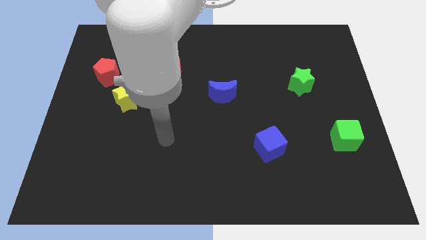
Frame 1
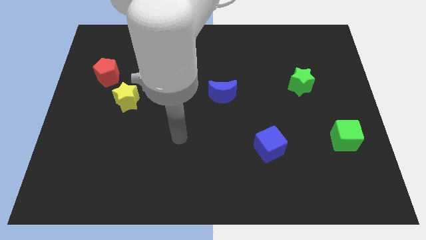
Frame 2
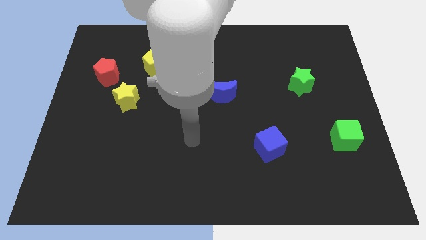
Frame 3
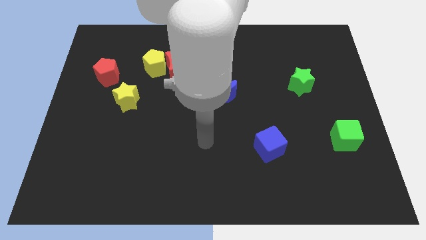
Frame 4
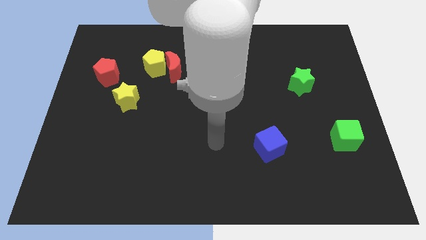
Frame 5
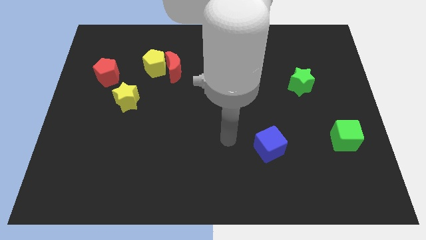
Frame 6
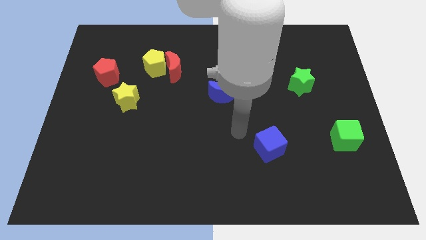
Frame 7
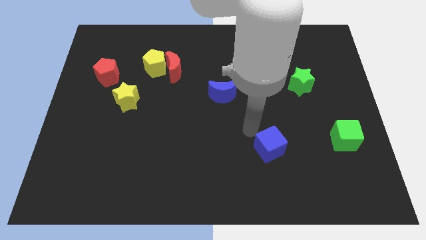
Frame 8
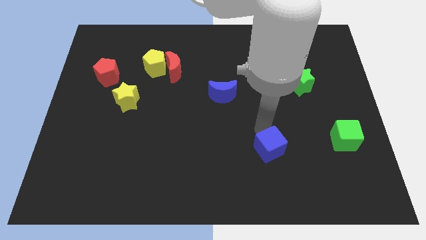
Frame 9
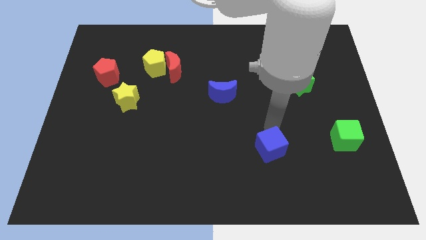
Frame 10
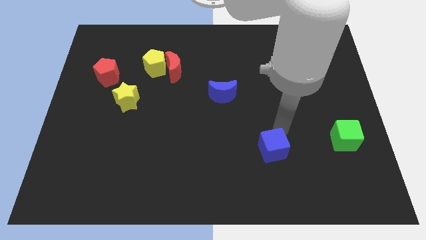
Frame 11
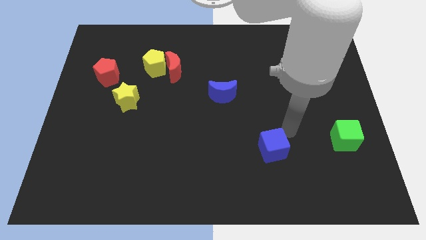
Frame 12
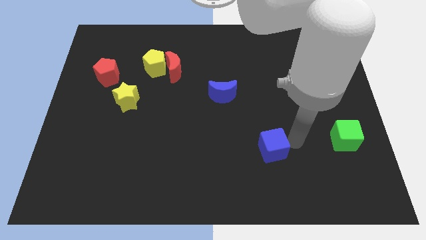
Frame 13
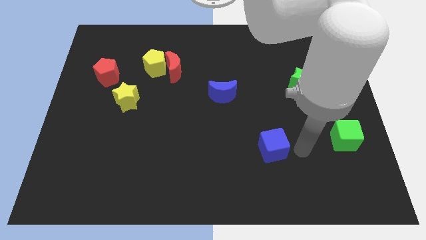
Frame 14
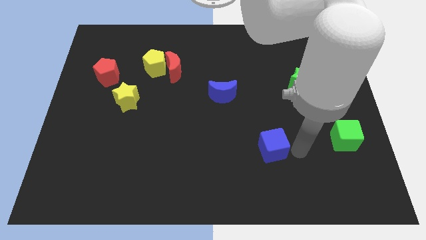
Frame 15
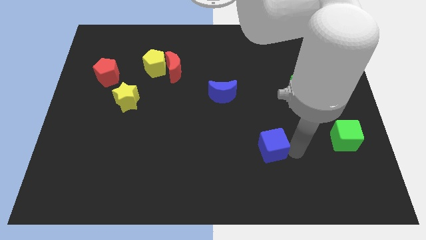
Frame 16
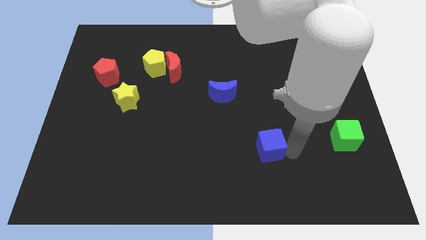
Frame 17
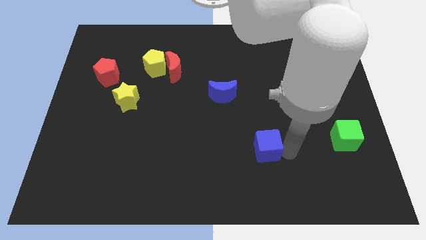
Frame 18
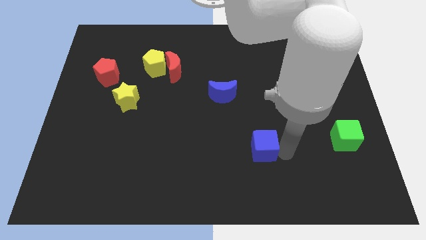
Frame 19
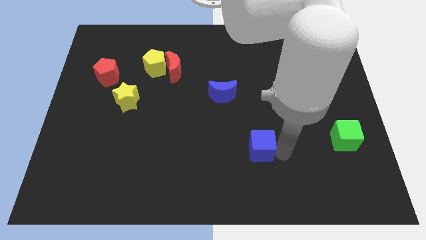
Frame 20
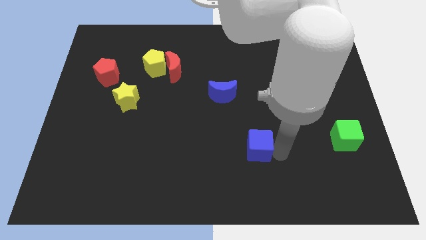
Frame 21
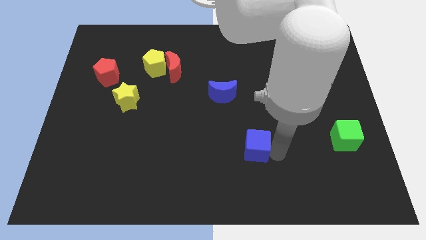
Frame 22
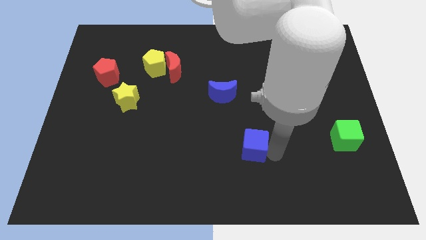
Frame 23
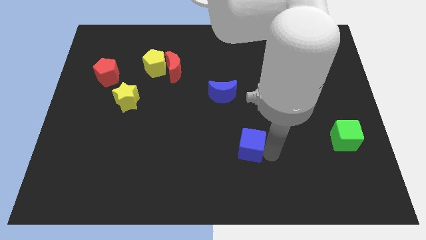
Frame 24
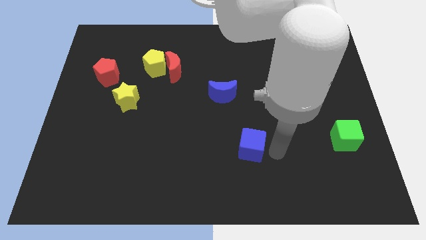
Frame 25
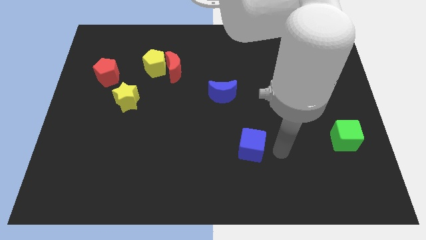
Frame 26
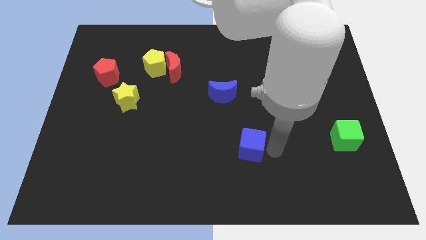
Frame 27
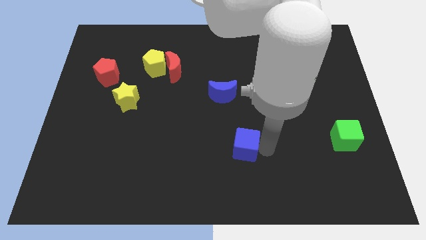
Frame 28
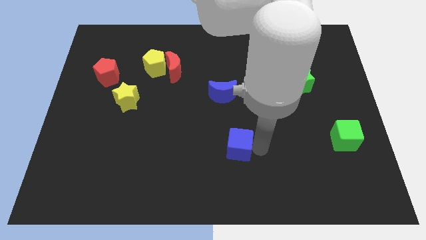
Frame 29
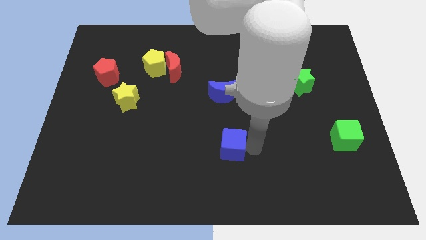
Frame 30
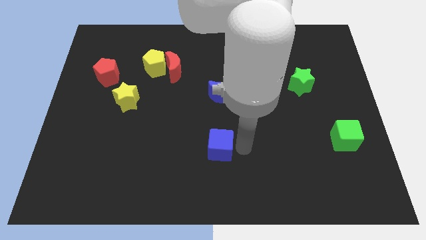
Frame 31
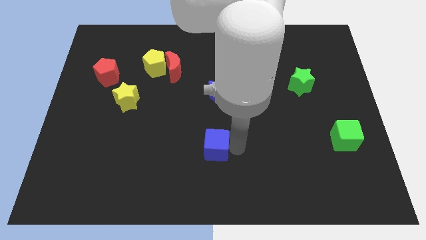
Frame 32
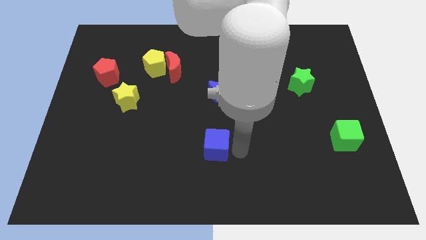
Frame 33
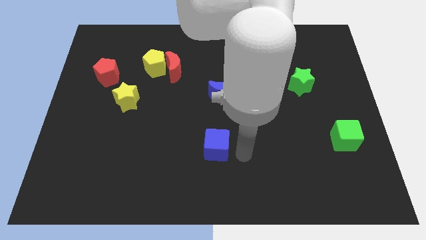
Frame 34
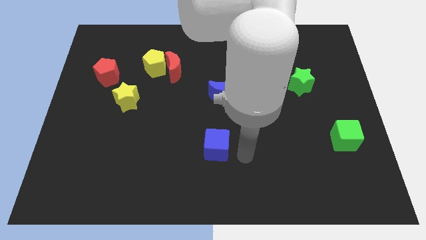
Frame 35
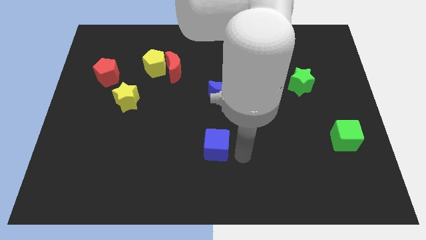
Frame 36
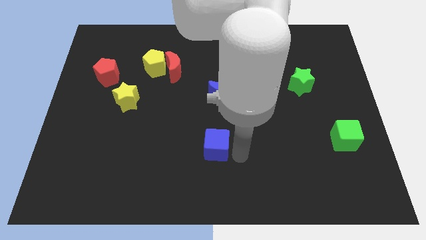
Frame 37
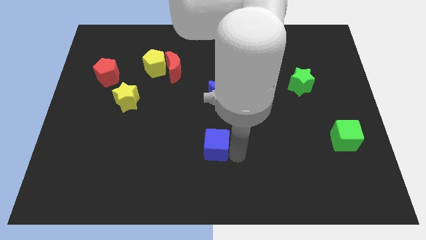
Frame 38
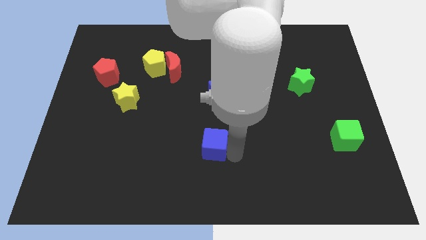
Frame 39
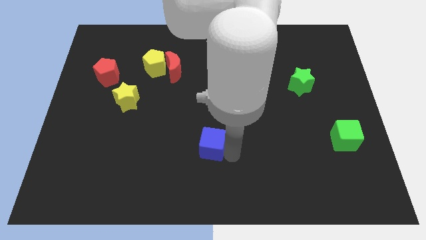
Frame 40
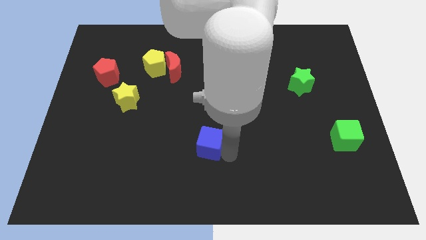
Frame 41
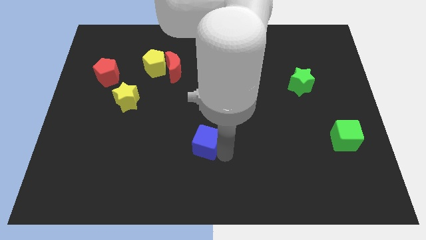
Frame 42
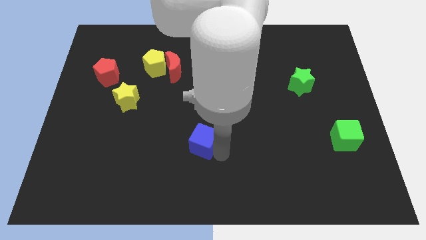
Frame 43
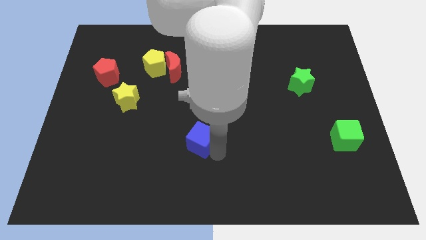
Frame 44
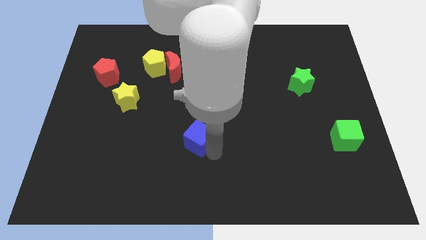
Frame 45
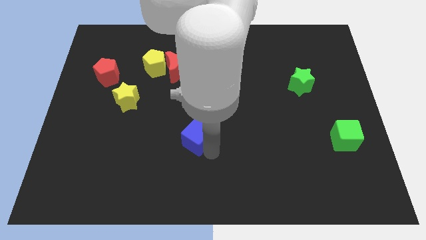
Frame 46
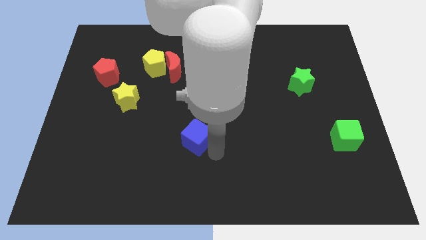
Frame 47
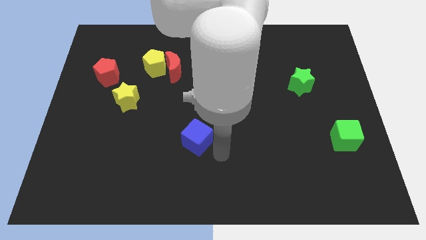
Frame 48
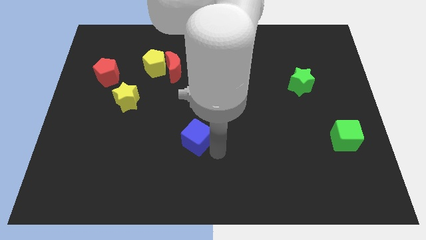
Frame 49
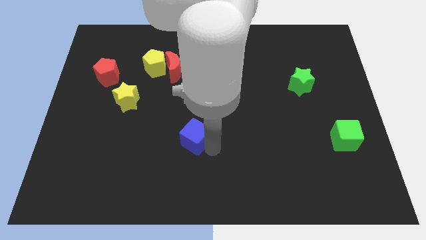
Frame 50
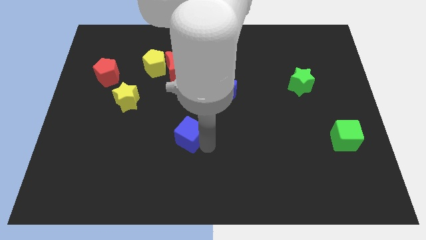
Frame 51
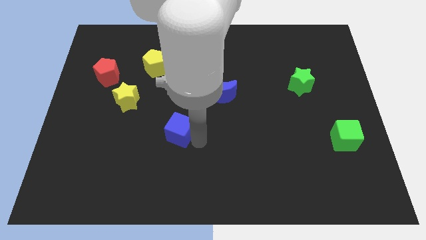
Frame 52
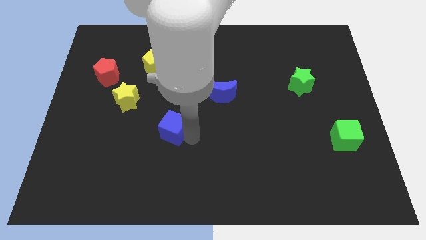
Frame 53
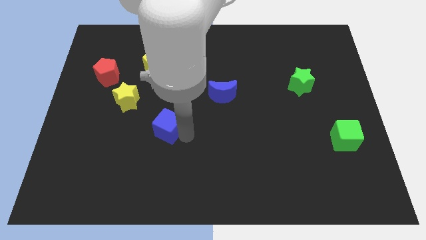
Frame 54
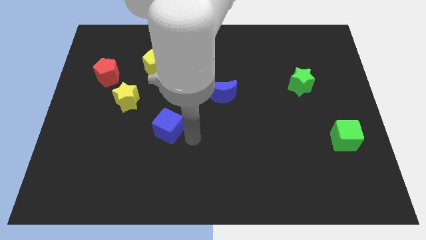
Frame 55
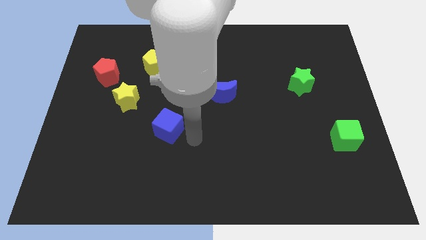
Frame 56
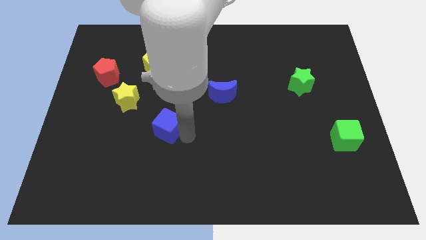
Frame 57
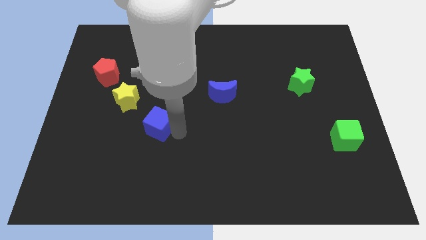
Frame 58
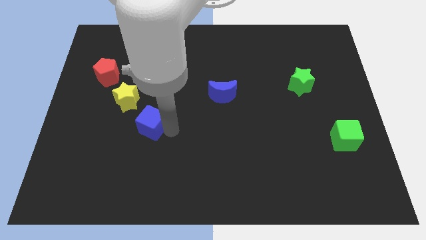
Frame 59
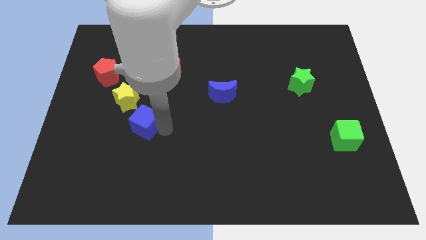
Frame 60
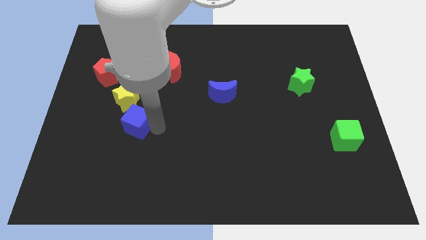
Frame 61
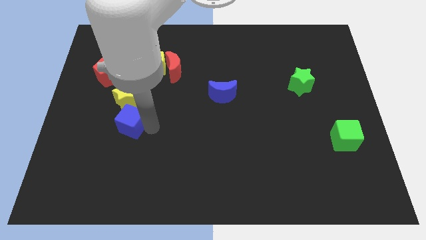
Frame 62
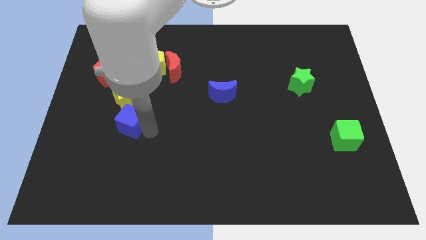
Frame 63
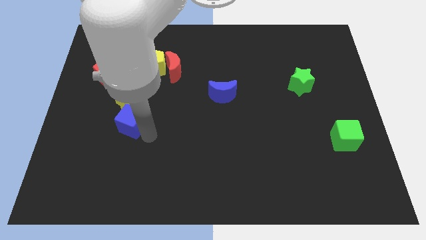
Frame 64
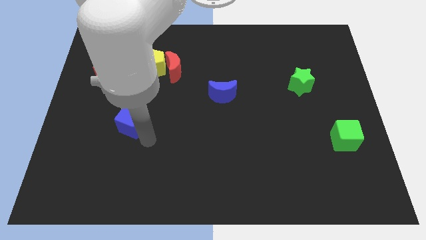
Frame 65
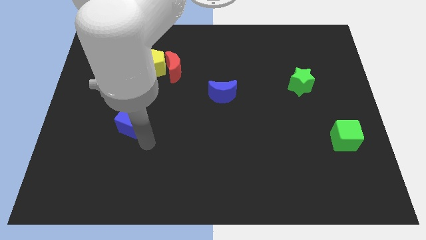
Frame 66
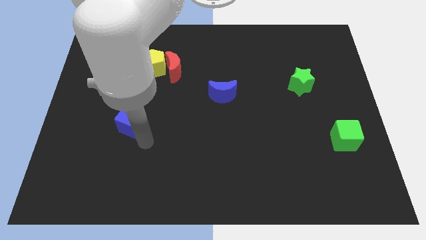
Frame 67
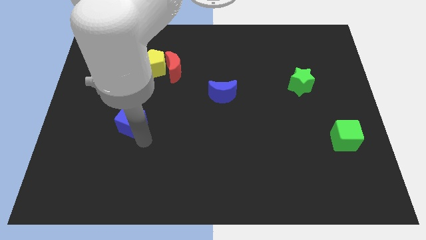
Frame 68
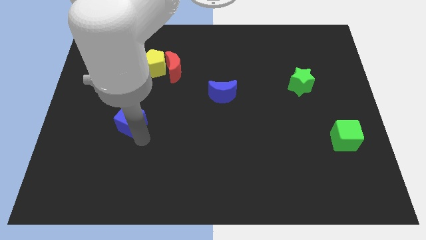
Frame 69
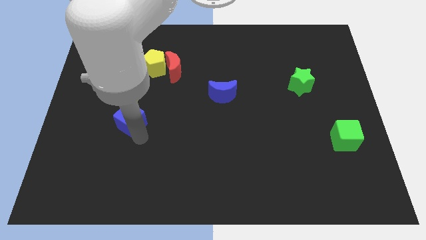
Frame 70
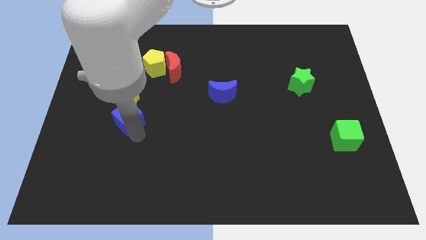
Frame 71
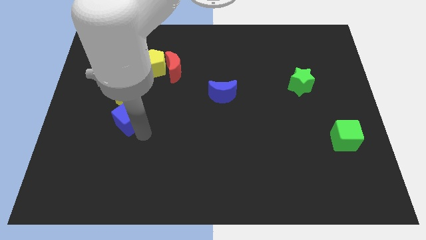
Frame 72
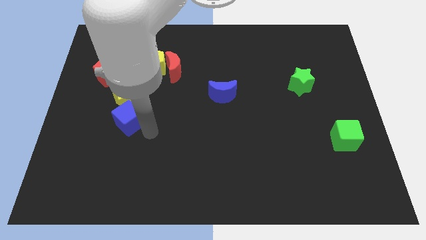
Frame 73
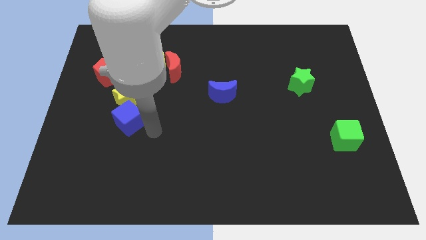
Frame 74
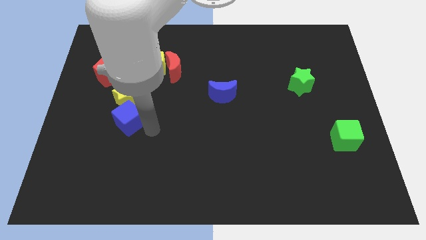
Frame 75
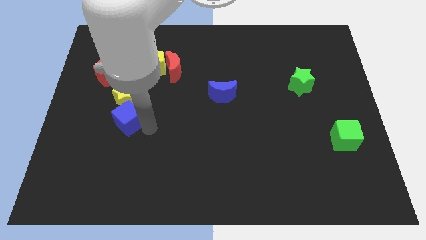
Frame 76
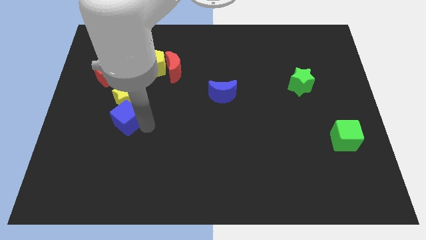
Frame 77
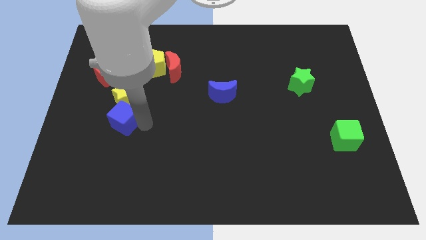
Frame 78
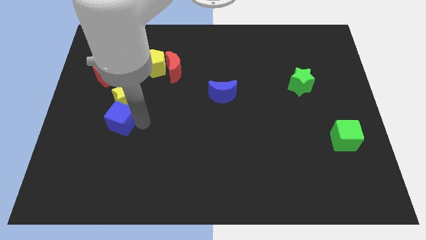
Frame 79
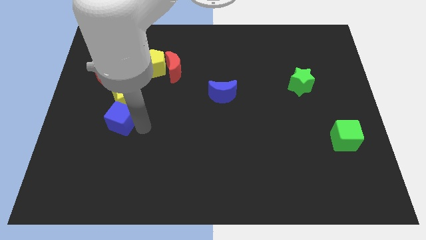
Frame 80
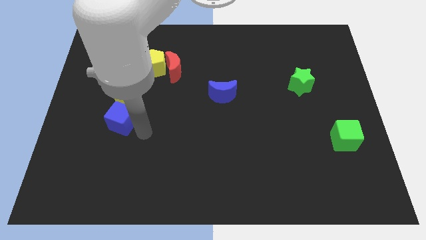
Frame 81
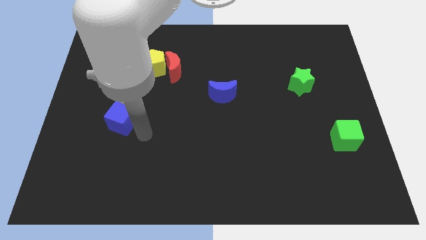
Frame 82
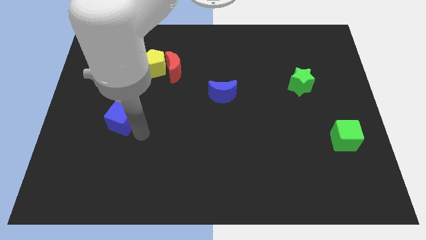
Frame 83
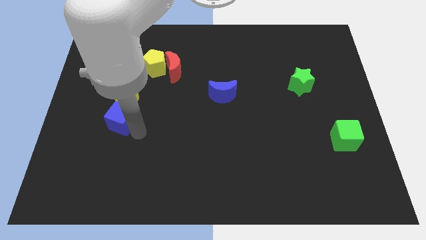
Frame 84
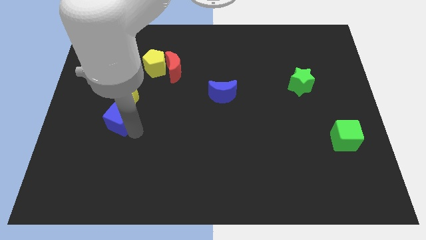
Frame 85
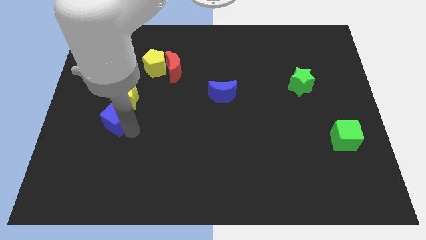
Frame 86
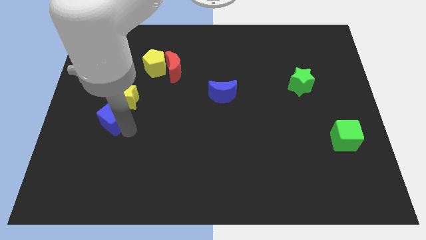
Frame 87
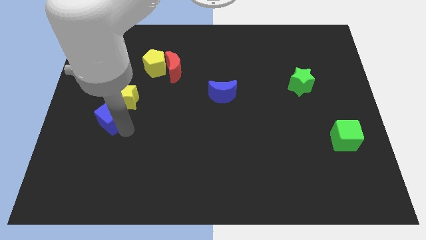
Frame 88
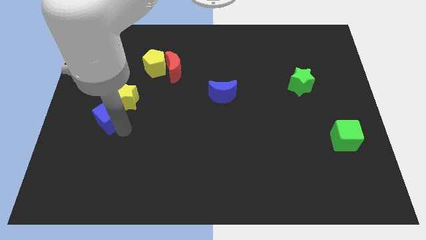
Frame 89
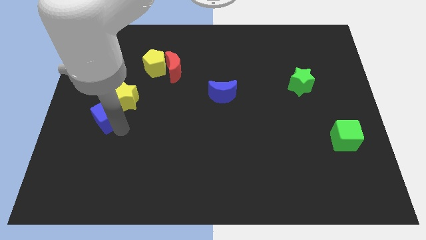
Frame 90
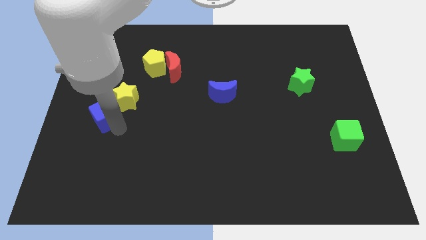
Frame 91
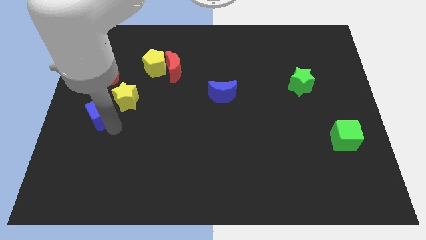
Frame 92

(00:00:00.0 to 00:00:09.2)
push the blue cube to the left side of the board
